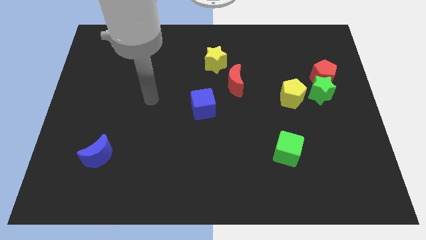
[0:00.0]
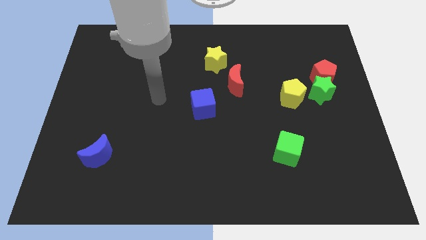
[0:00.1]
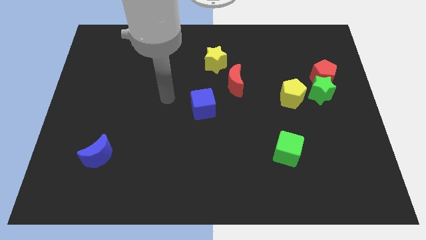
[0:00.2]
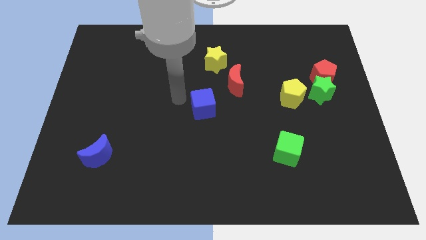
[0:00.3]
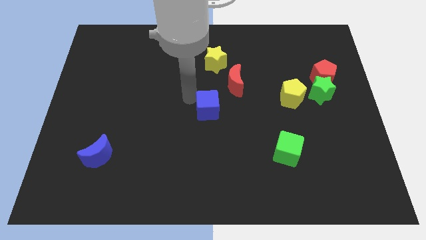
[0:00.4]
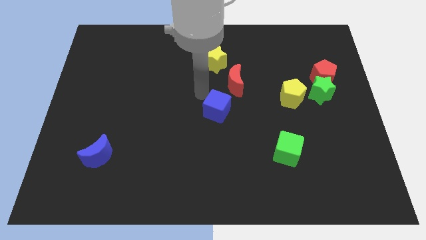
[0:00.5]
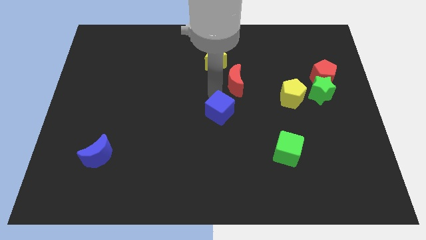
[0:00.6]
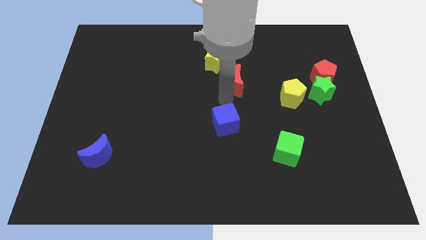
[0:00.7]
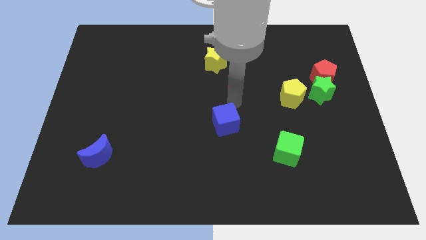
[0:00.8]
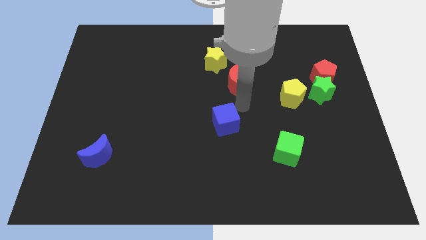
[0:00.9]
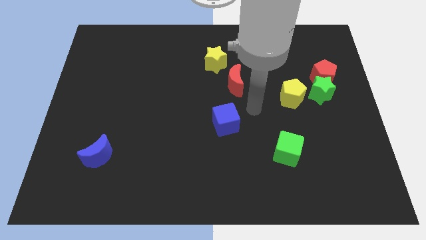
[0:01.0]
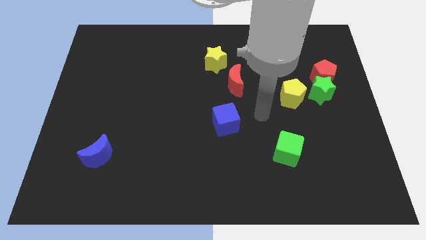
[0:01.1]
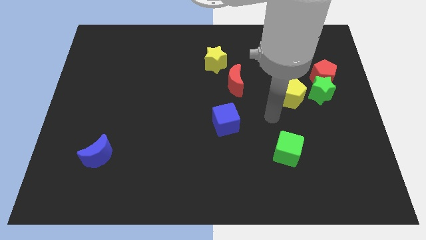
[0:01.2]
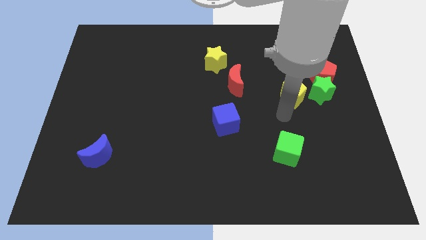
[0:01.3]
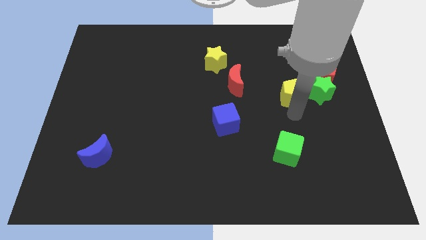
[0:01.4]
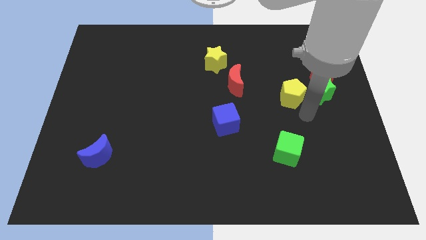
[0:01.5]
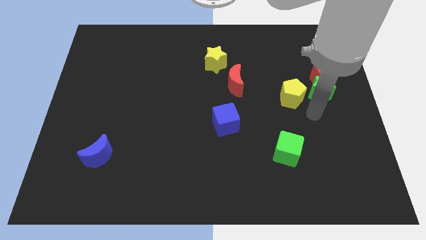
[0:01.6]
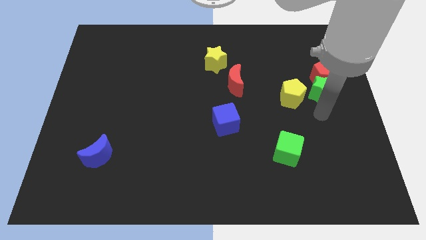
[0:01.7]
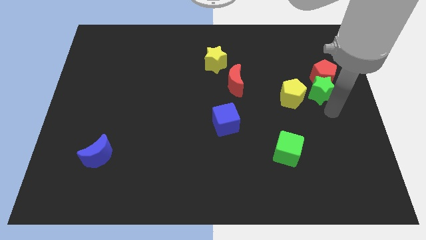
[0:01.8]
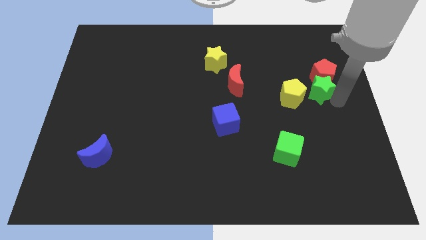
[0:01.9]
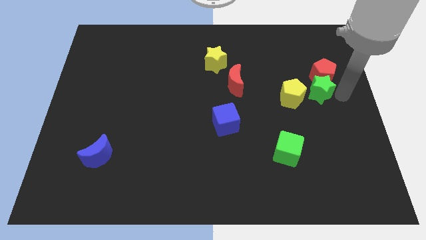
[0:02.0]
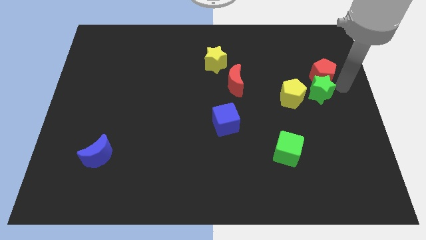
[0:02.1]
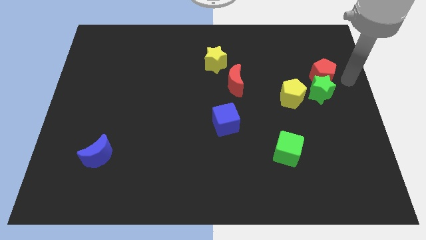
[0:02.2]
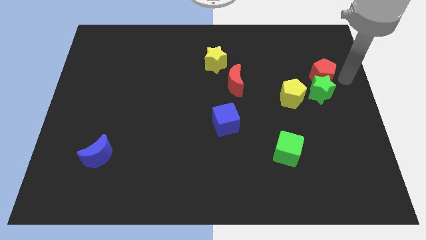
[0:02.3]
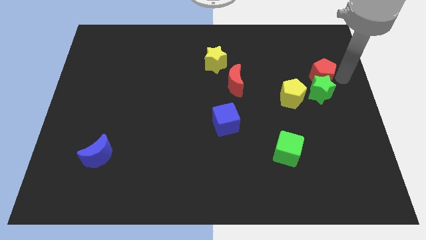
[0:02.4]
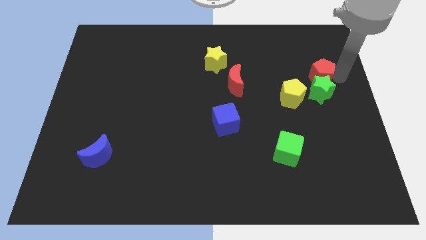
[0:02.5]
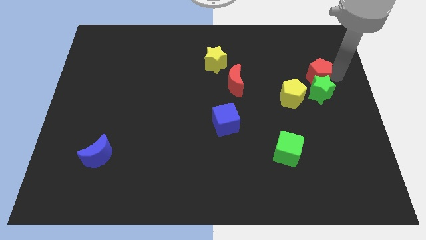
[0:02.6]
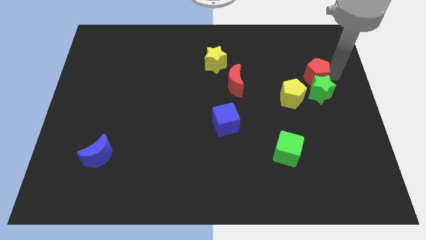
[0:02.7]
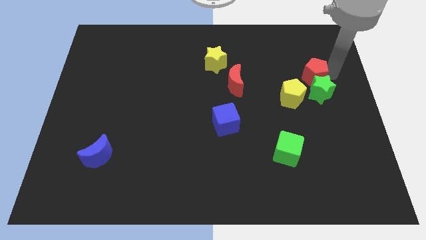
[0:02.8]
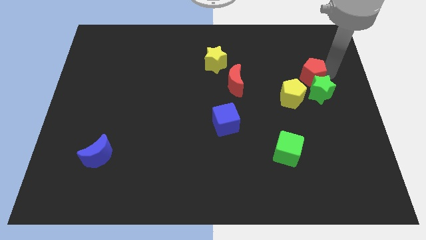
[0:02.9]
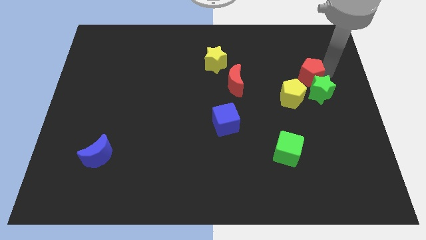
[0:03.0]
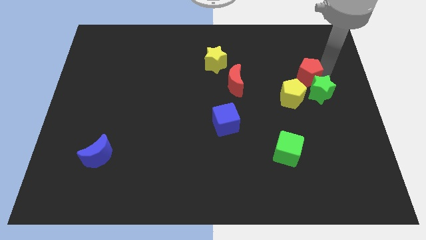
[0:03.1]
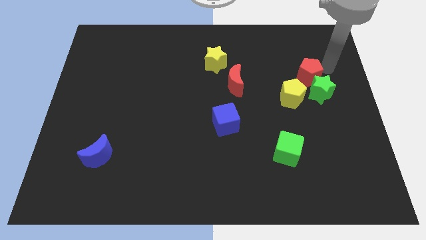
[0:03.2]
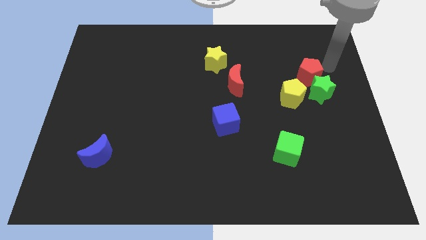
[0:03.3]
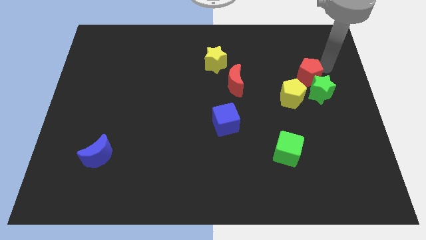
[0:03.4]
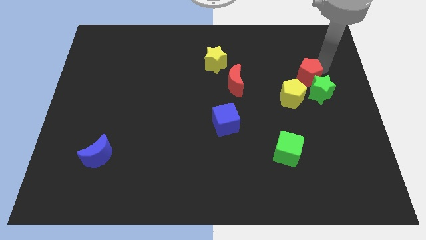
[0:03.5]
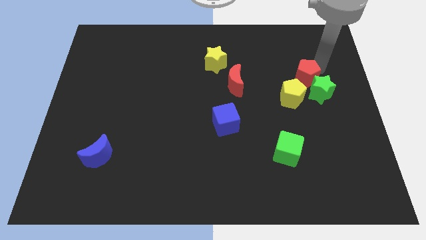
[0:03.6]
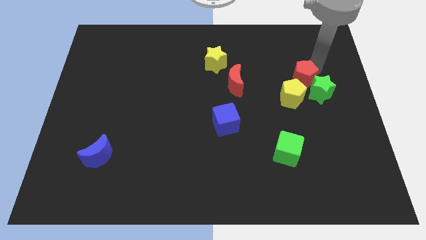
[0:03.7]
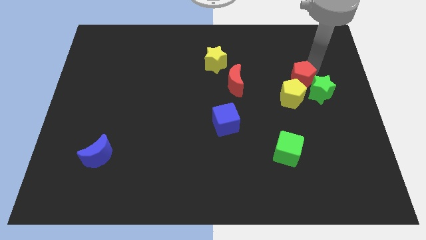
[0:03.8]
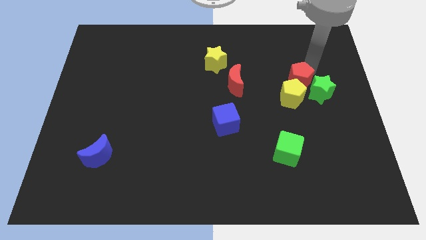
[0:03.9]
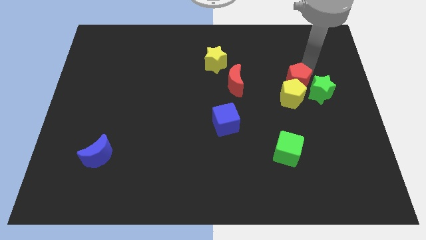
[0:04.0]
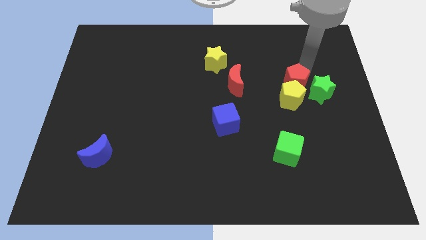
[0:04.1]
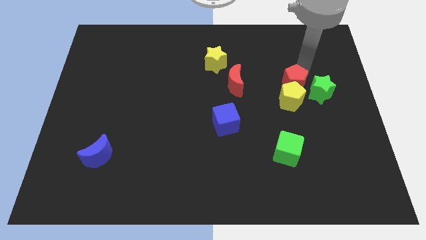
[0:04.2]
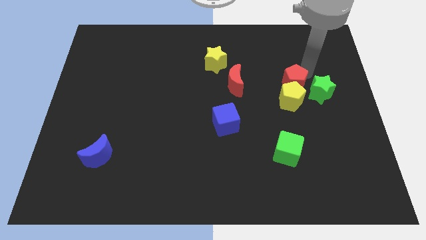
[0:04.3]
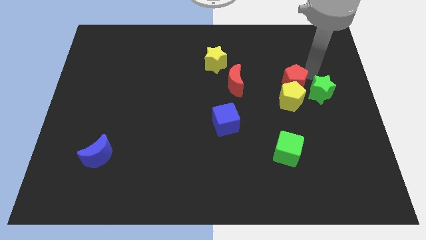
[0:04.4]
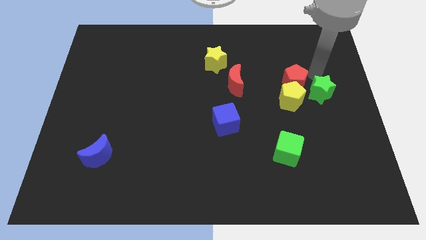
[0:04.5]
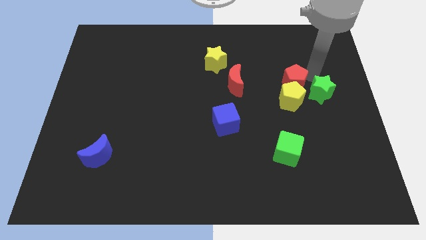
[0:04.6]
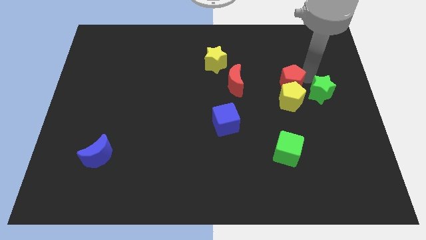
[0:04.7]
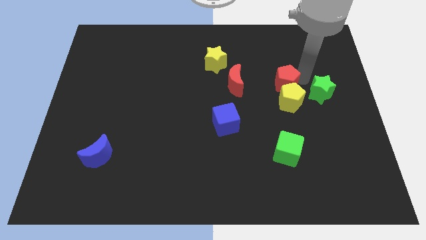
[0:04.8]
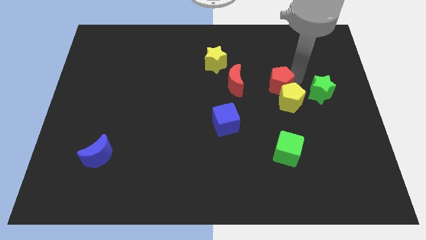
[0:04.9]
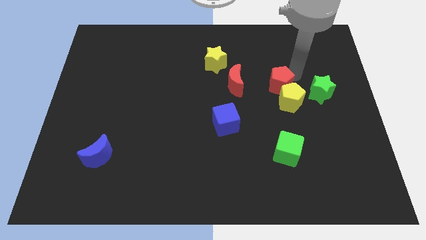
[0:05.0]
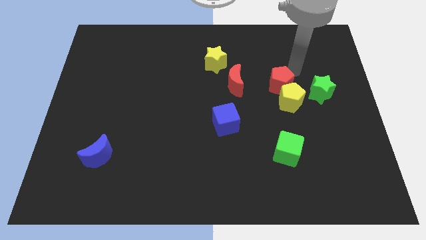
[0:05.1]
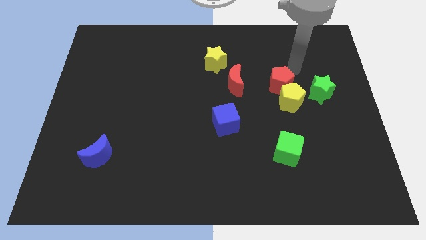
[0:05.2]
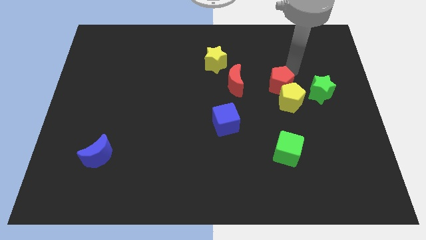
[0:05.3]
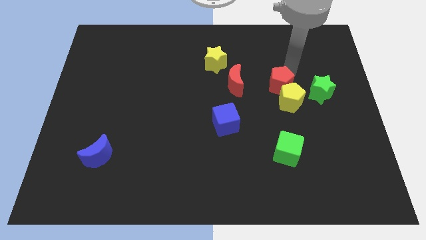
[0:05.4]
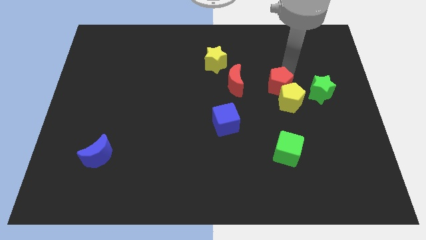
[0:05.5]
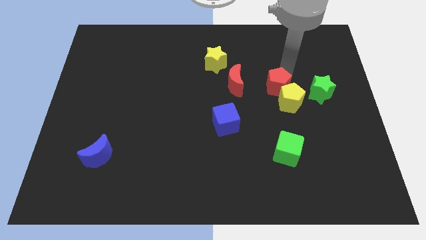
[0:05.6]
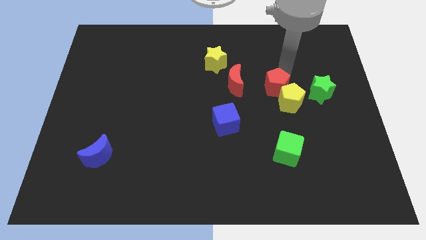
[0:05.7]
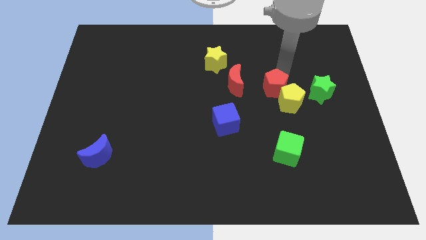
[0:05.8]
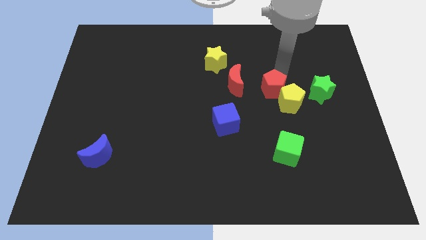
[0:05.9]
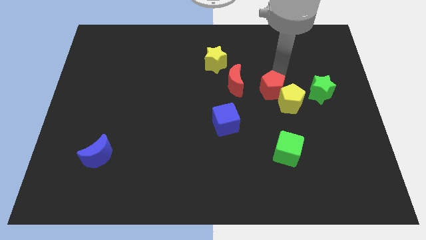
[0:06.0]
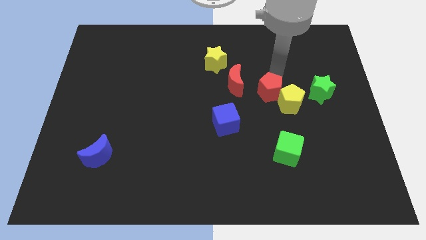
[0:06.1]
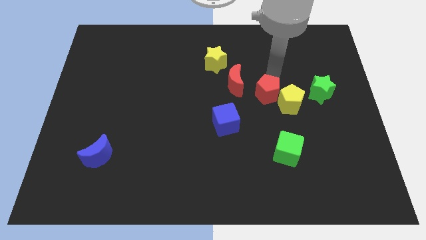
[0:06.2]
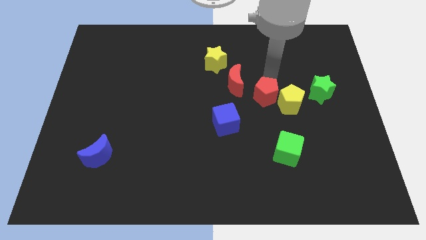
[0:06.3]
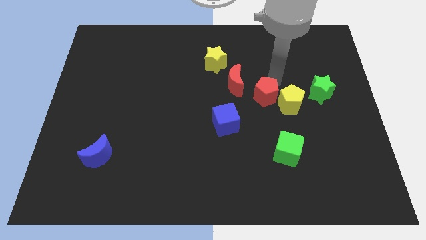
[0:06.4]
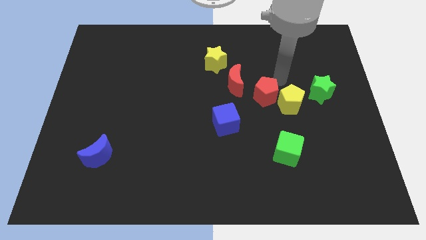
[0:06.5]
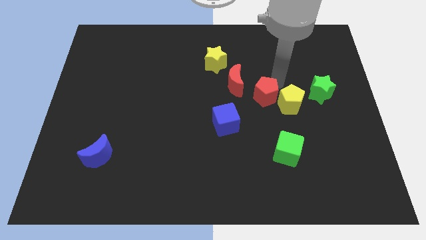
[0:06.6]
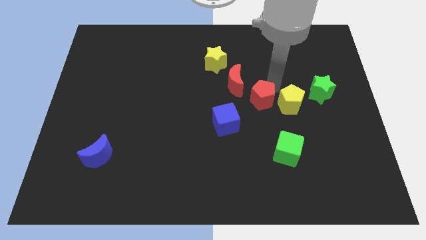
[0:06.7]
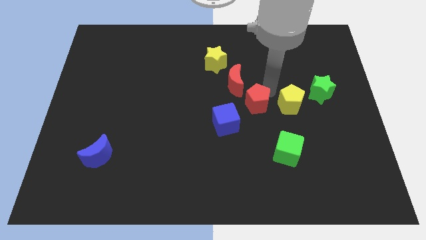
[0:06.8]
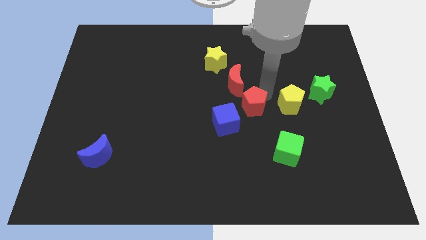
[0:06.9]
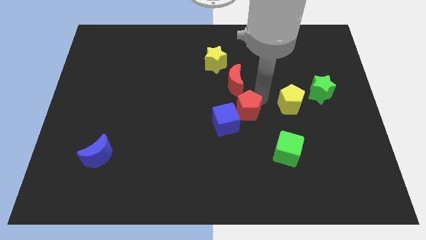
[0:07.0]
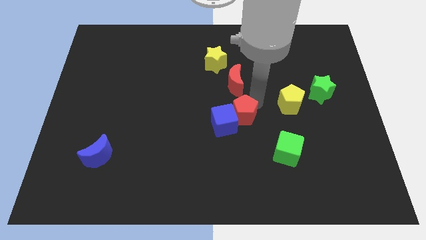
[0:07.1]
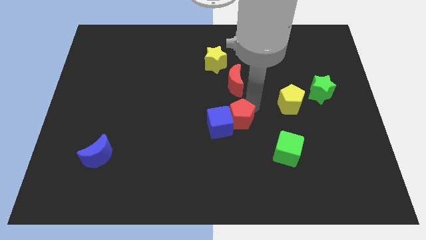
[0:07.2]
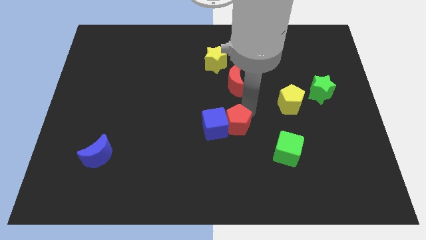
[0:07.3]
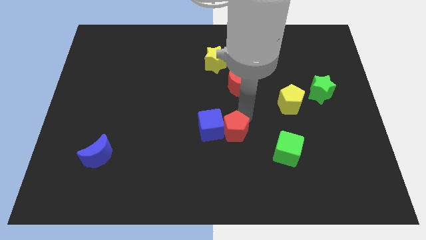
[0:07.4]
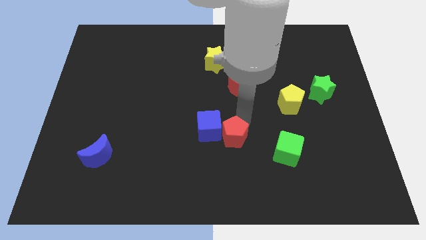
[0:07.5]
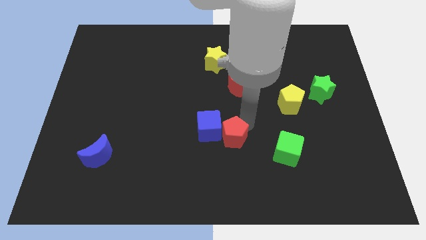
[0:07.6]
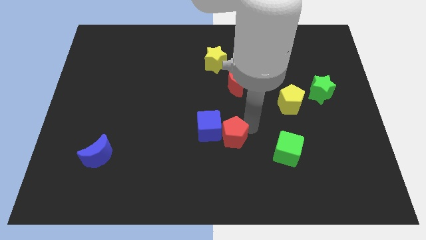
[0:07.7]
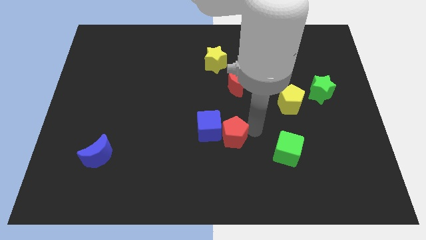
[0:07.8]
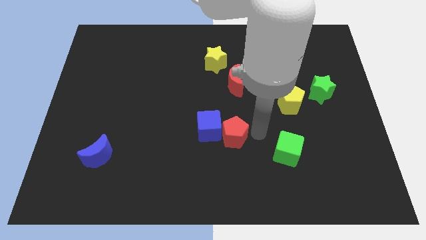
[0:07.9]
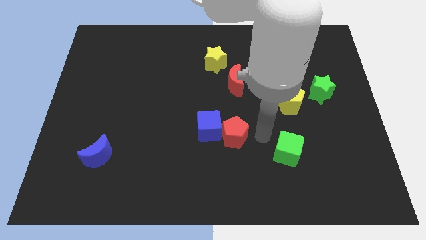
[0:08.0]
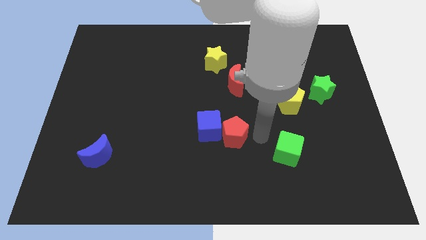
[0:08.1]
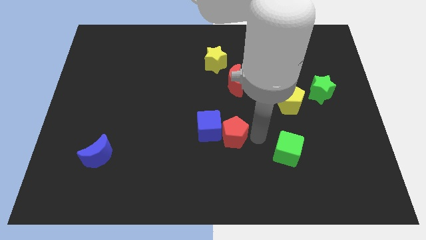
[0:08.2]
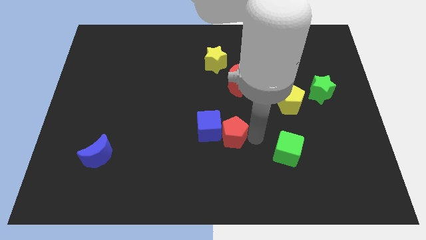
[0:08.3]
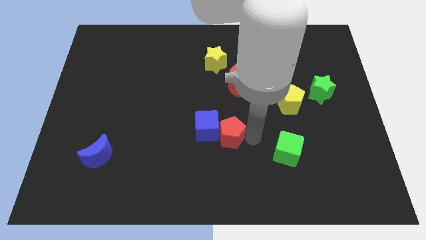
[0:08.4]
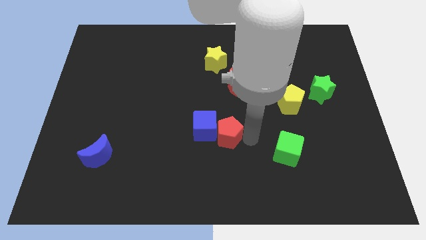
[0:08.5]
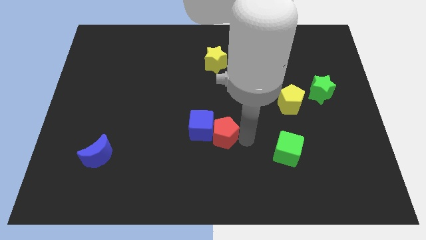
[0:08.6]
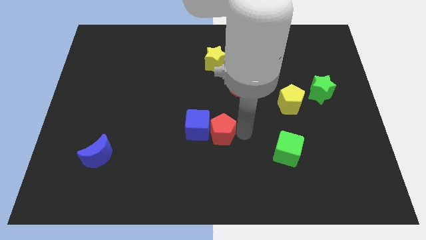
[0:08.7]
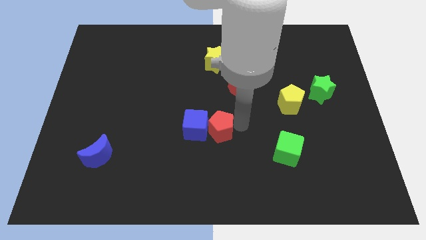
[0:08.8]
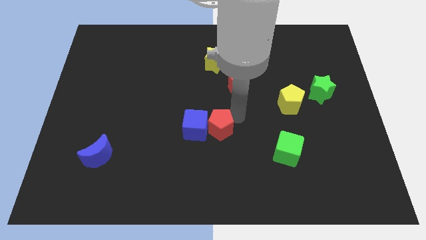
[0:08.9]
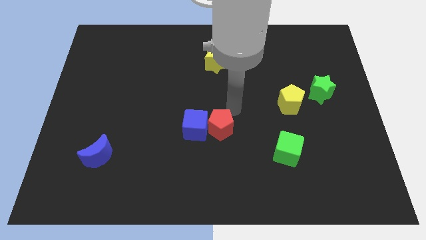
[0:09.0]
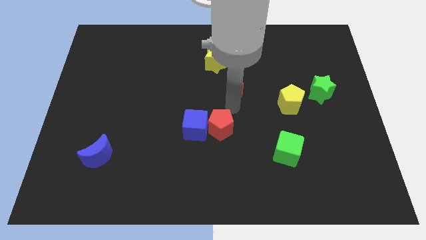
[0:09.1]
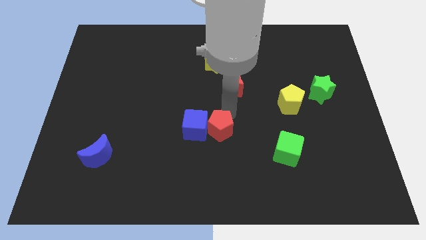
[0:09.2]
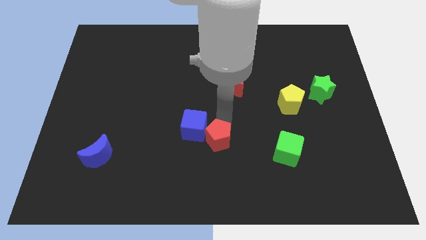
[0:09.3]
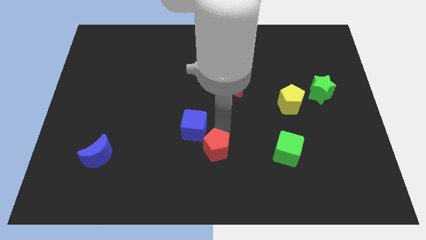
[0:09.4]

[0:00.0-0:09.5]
slide the red pentagon to the bottom side of the blue cube
